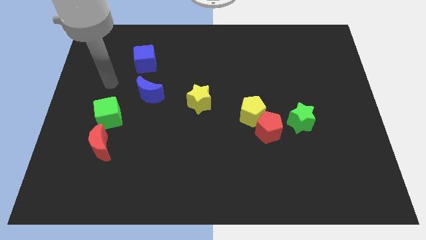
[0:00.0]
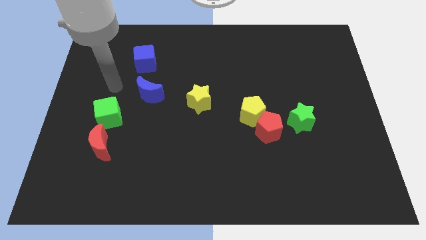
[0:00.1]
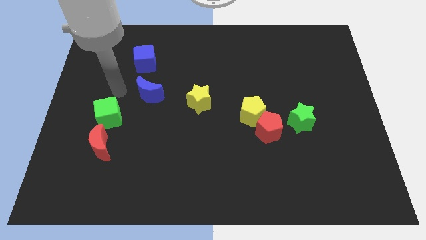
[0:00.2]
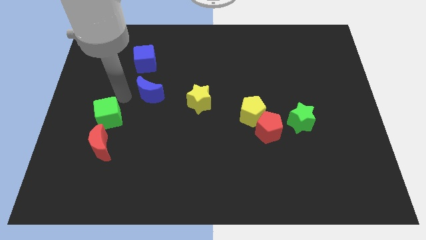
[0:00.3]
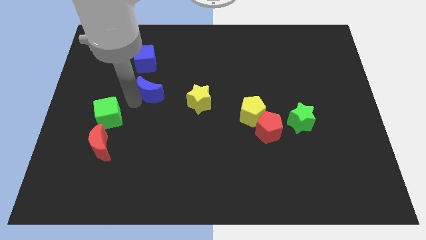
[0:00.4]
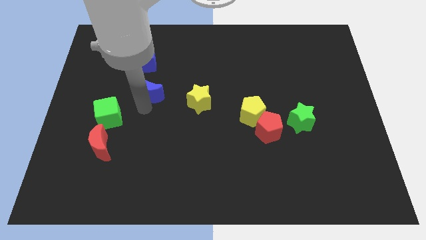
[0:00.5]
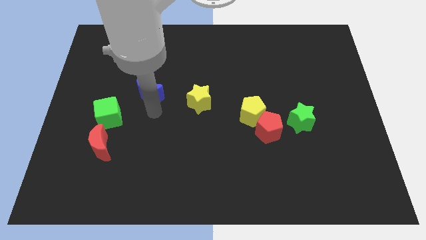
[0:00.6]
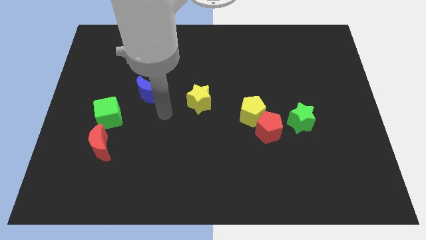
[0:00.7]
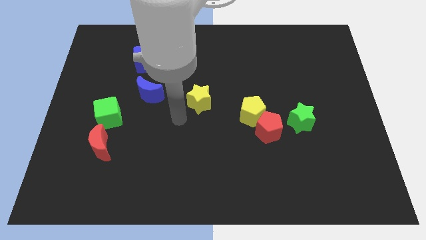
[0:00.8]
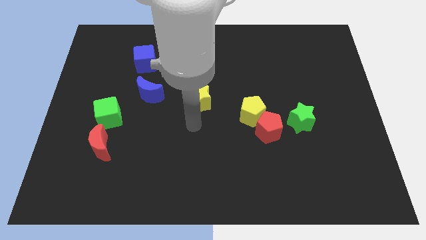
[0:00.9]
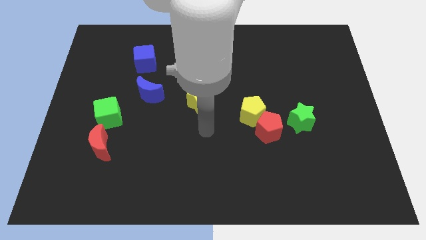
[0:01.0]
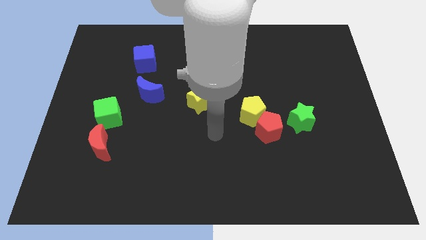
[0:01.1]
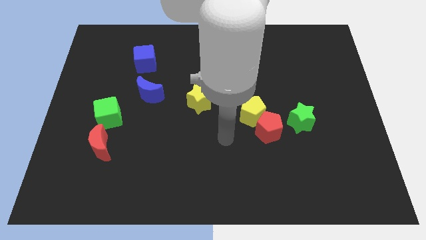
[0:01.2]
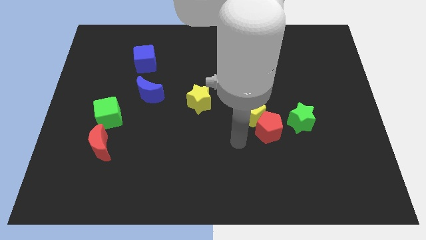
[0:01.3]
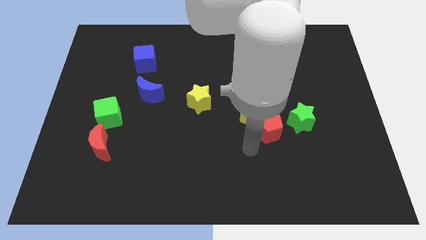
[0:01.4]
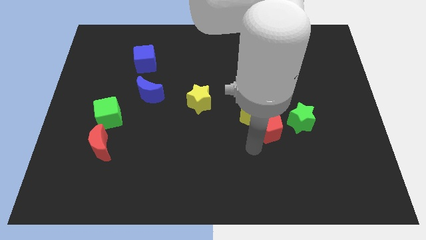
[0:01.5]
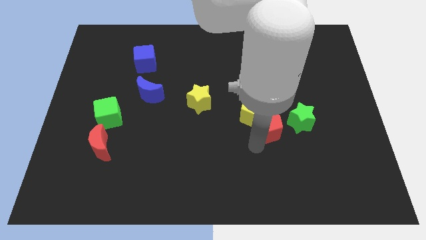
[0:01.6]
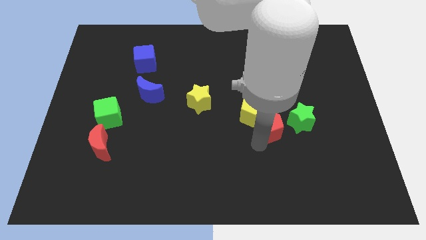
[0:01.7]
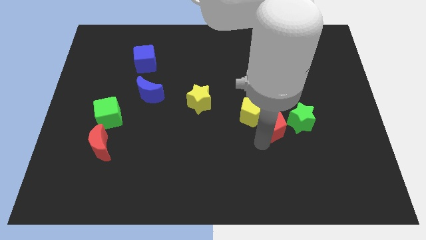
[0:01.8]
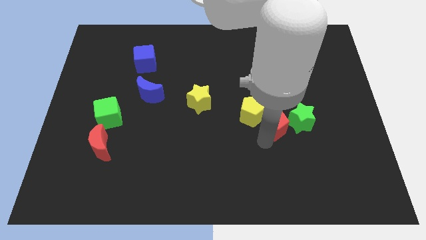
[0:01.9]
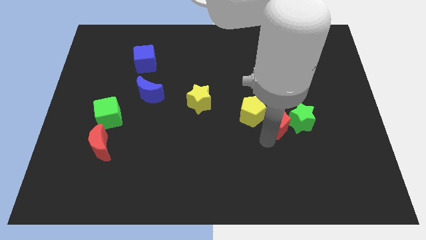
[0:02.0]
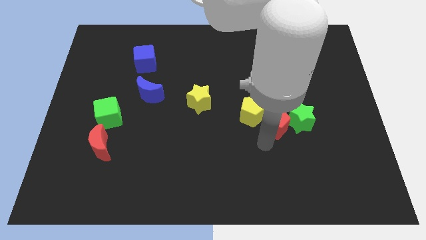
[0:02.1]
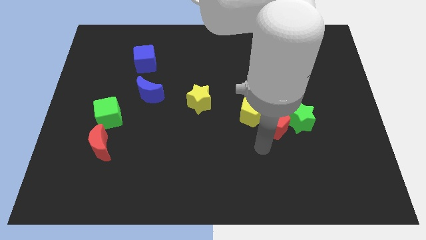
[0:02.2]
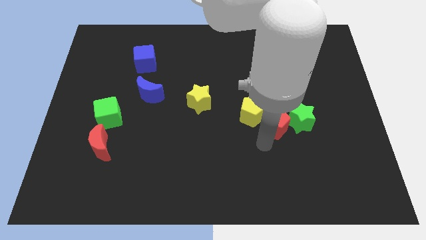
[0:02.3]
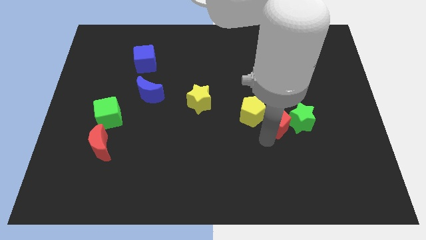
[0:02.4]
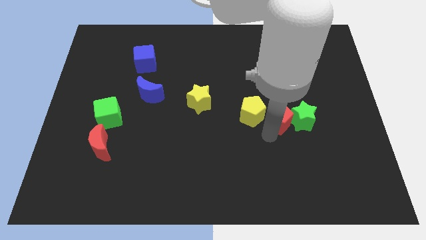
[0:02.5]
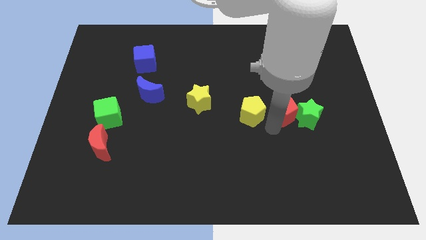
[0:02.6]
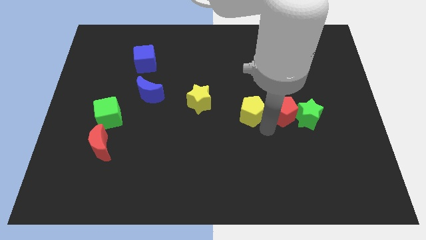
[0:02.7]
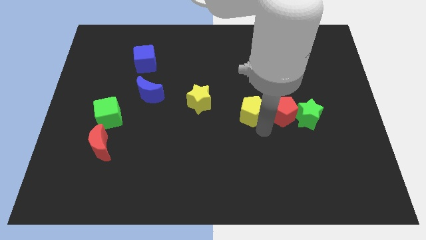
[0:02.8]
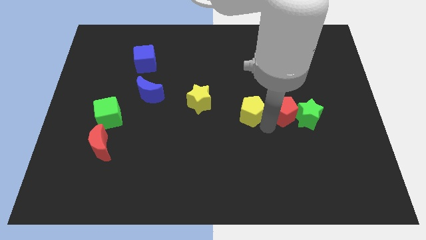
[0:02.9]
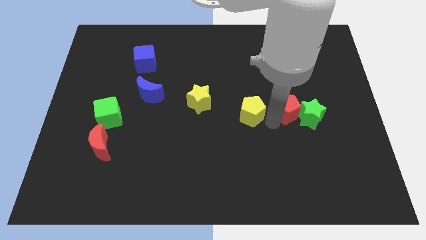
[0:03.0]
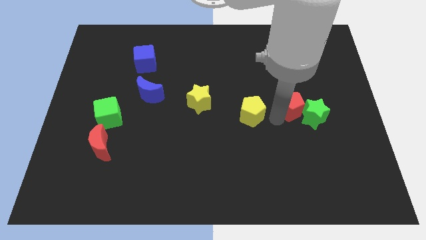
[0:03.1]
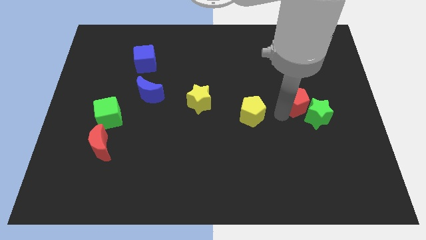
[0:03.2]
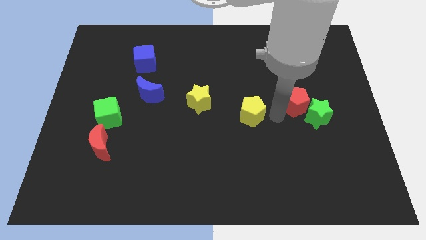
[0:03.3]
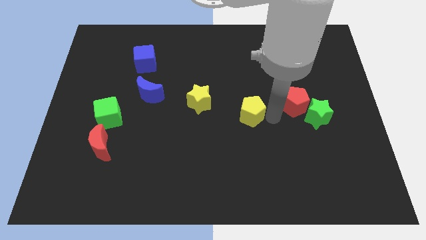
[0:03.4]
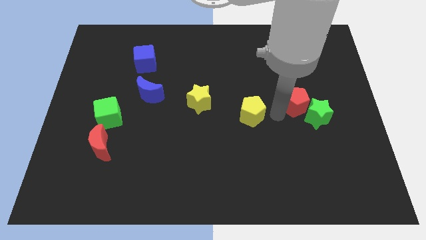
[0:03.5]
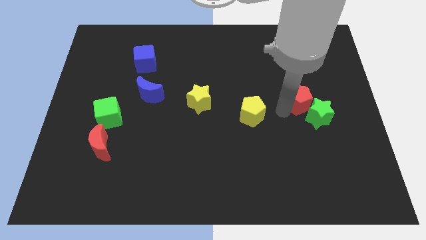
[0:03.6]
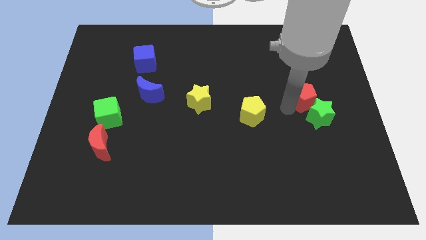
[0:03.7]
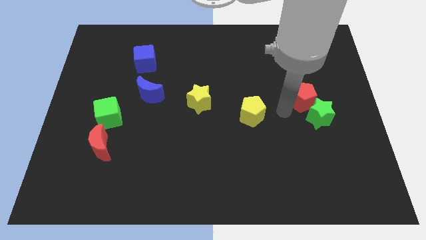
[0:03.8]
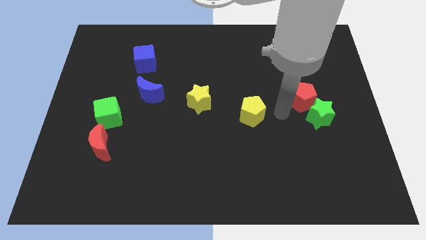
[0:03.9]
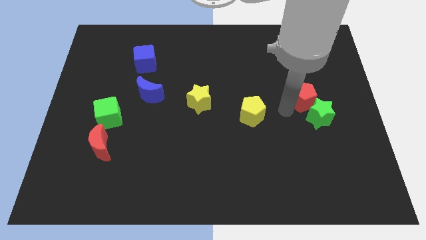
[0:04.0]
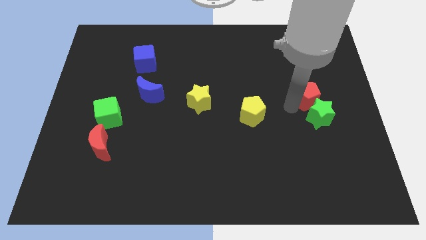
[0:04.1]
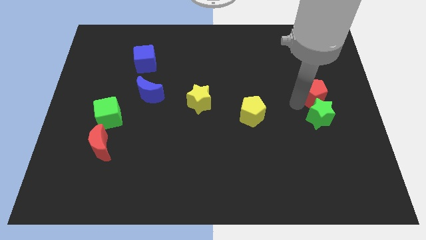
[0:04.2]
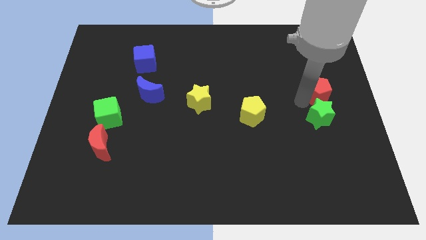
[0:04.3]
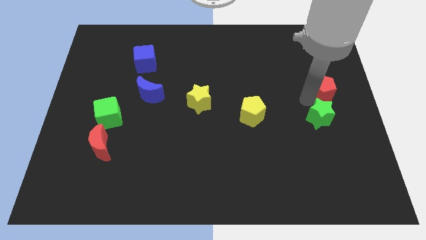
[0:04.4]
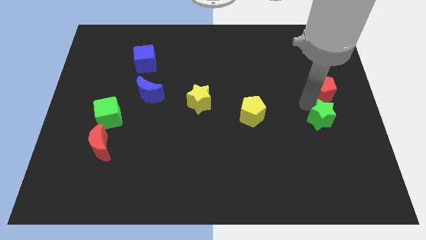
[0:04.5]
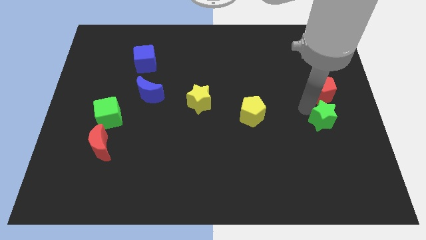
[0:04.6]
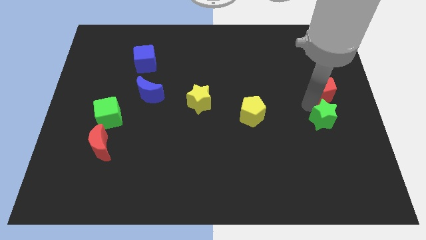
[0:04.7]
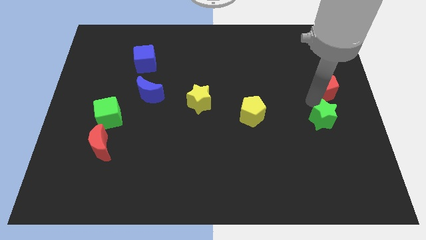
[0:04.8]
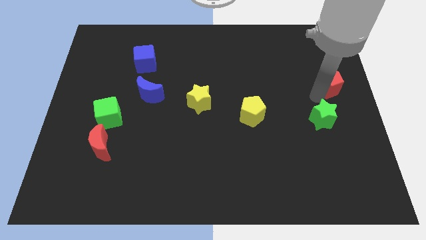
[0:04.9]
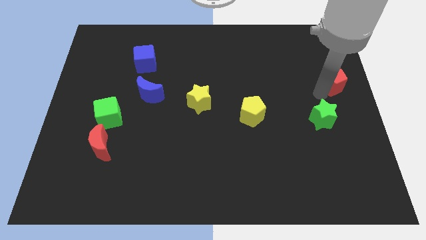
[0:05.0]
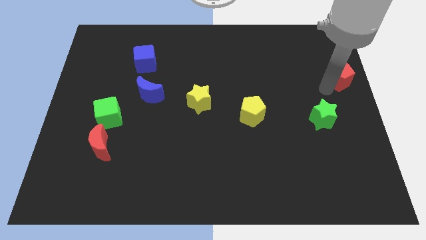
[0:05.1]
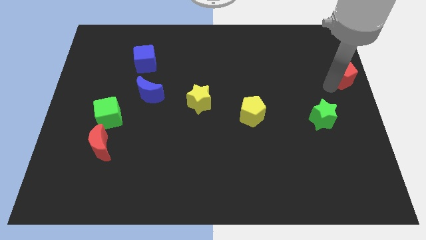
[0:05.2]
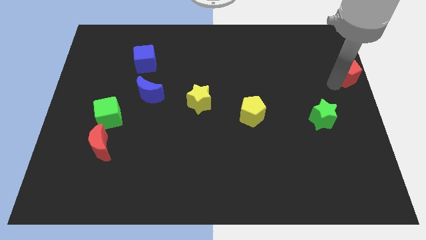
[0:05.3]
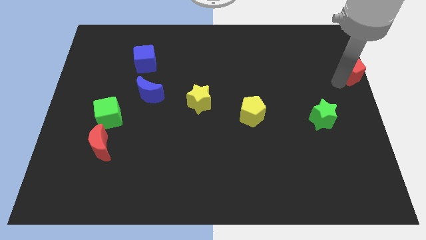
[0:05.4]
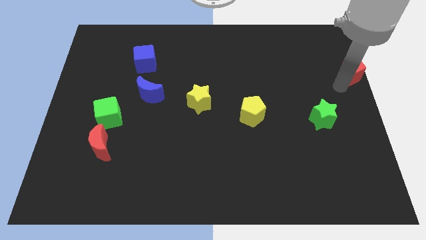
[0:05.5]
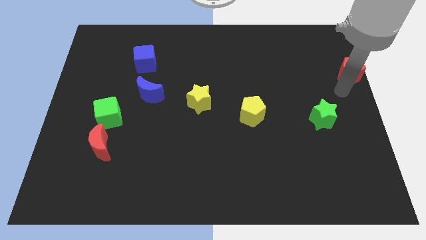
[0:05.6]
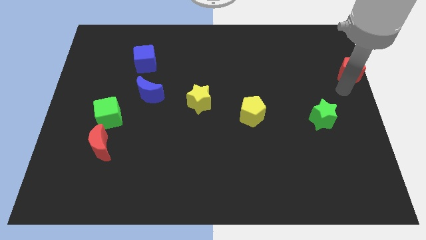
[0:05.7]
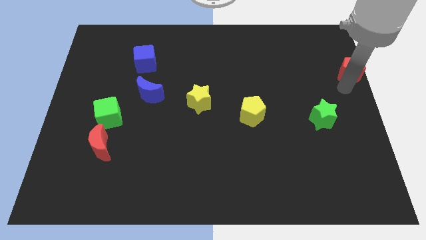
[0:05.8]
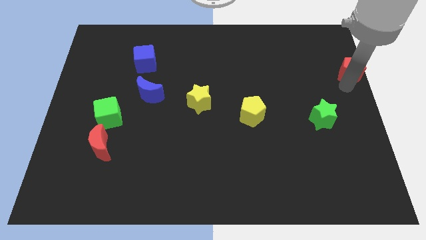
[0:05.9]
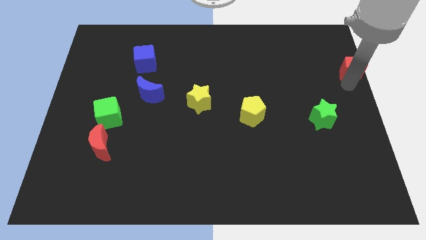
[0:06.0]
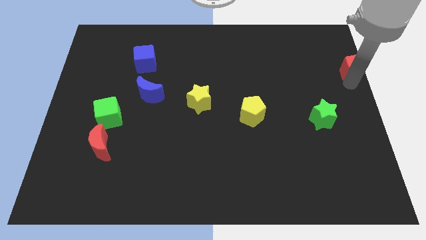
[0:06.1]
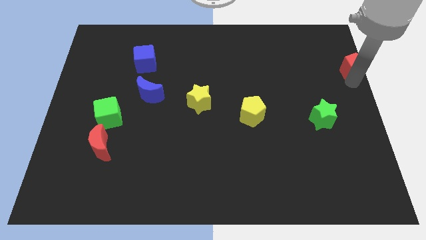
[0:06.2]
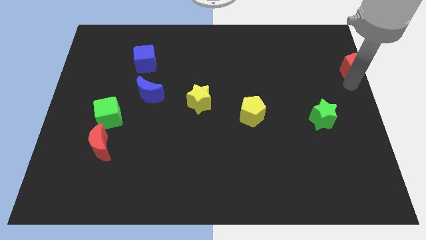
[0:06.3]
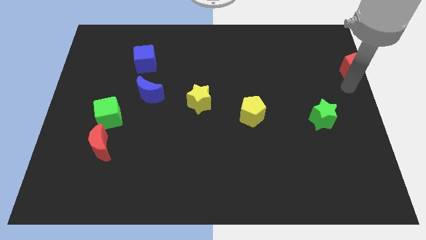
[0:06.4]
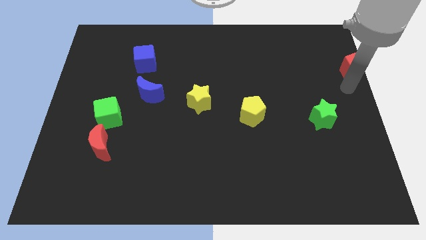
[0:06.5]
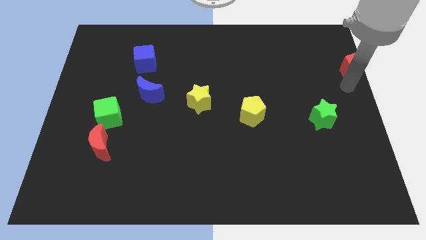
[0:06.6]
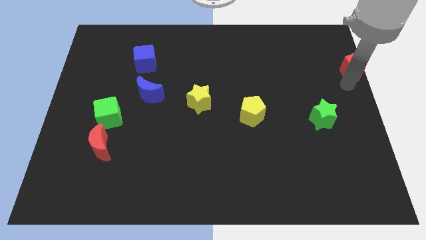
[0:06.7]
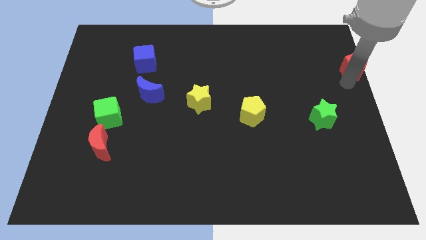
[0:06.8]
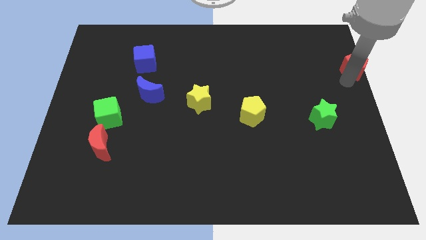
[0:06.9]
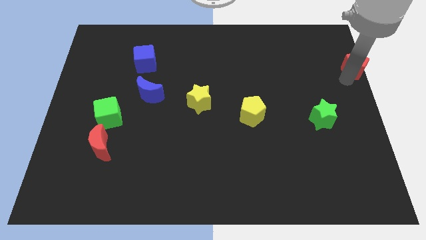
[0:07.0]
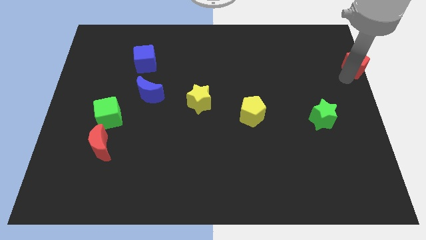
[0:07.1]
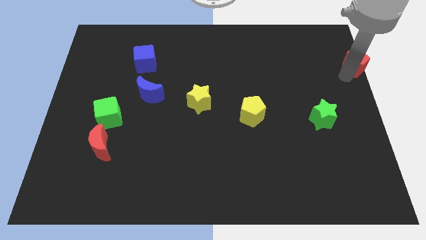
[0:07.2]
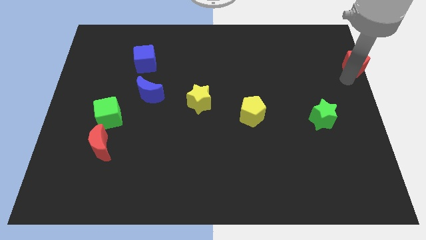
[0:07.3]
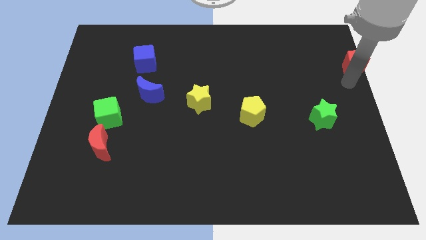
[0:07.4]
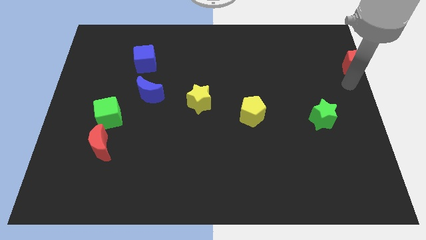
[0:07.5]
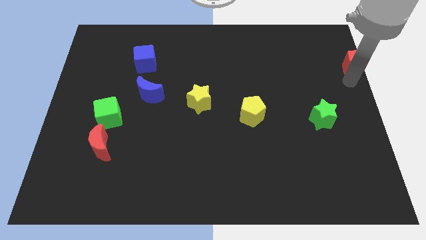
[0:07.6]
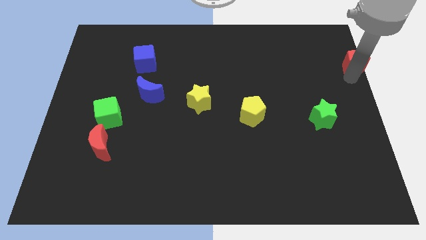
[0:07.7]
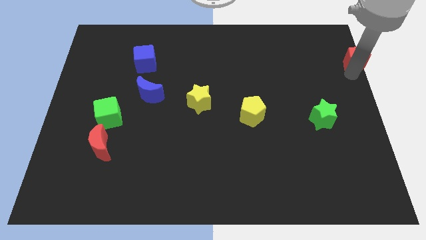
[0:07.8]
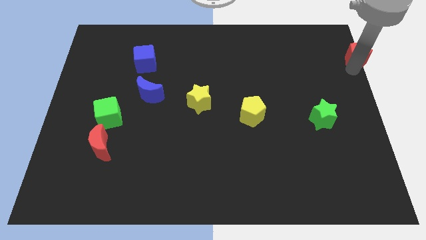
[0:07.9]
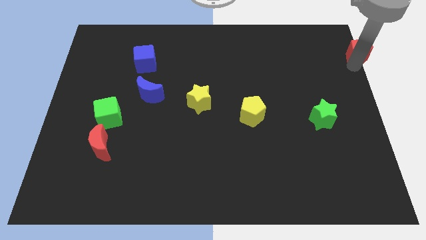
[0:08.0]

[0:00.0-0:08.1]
push the red pentagon to the top right corner
